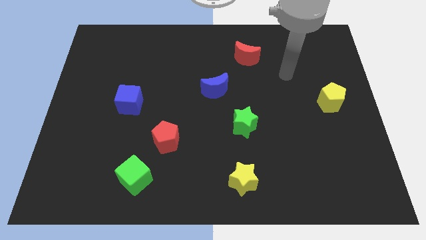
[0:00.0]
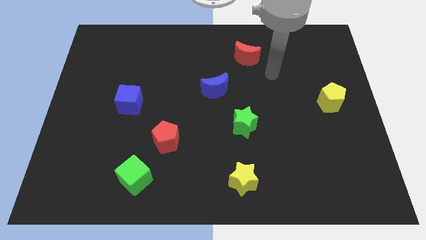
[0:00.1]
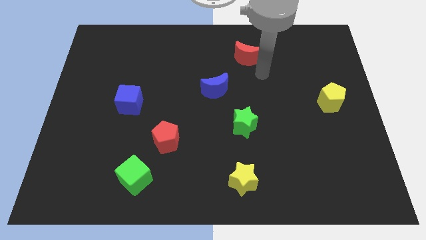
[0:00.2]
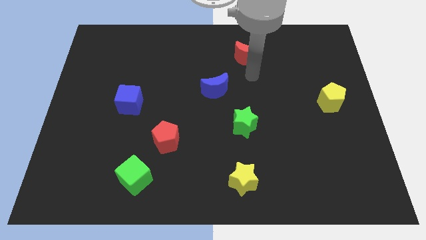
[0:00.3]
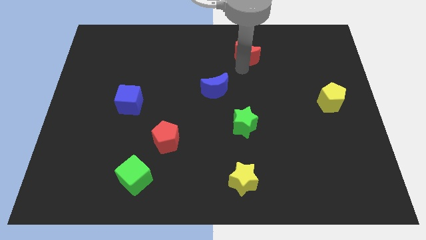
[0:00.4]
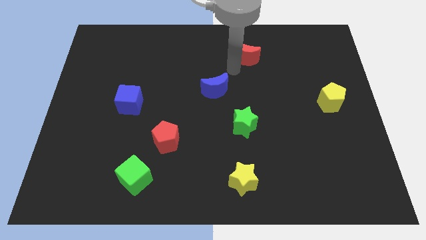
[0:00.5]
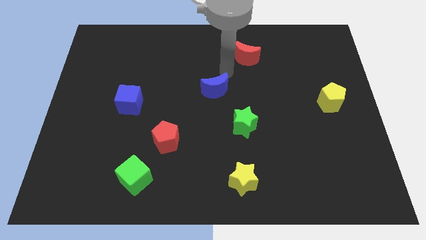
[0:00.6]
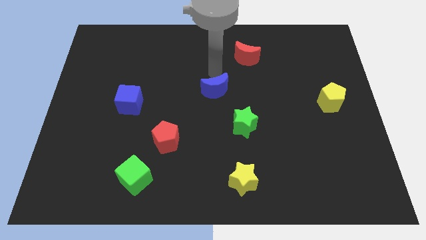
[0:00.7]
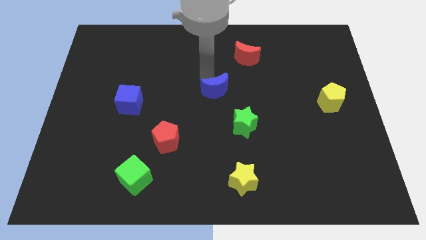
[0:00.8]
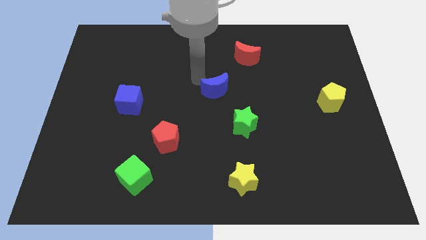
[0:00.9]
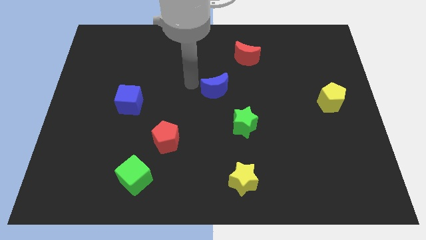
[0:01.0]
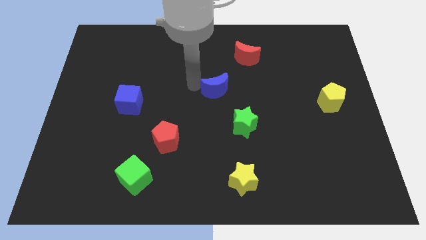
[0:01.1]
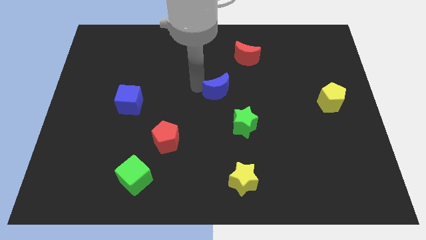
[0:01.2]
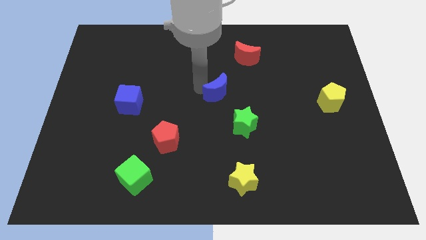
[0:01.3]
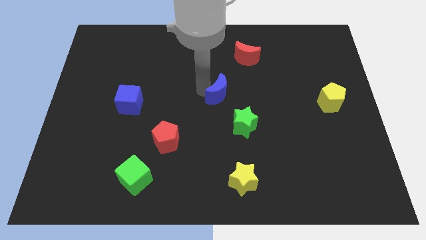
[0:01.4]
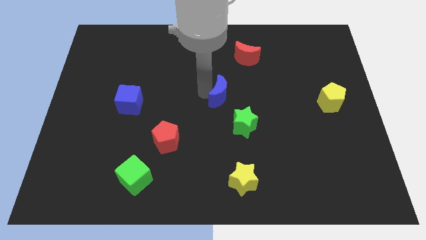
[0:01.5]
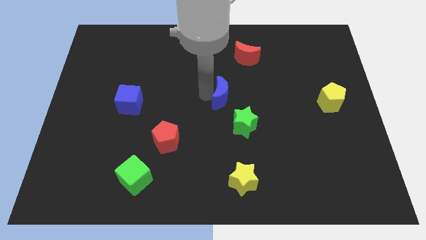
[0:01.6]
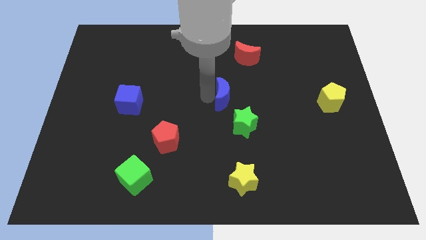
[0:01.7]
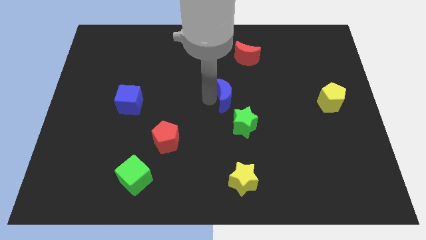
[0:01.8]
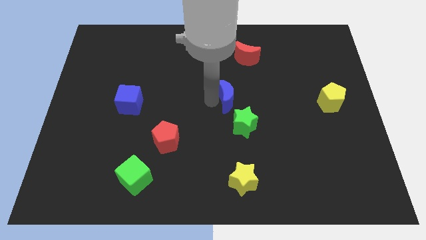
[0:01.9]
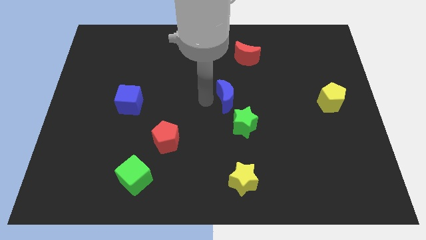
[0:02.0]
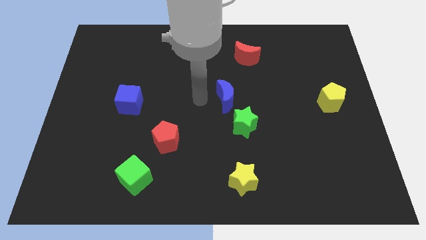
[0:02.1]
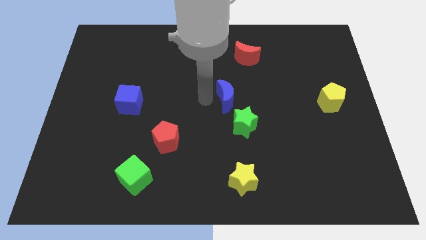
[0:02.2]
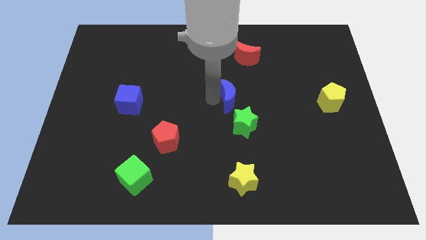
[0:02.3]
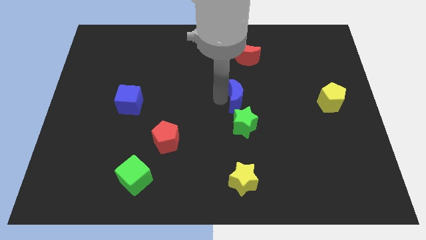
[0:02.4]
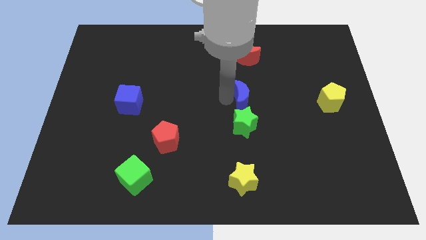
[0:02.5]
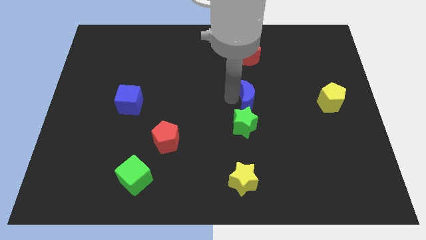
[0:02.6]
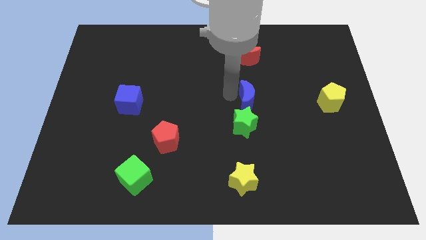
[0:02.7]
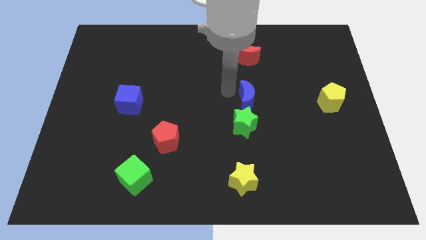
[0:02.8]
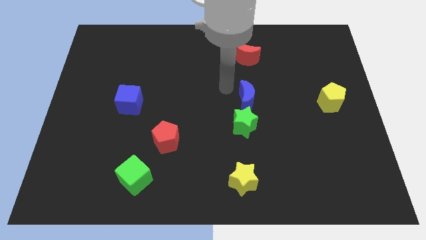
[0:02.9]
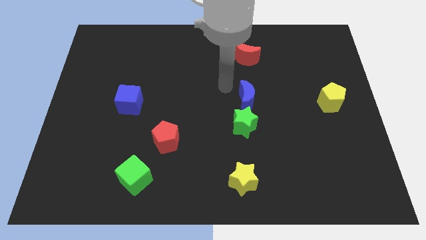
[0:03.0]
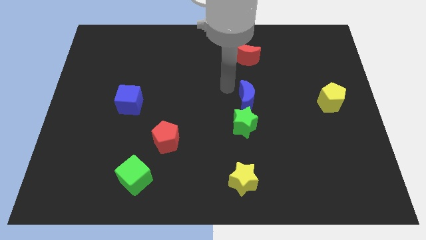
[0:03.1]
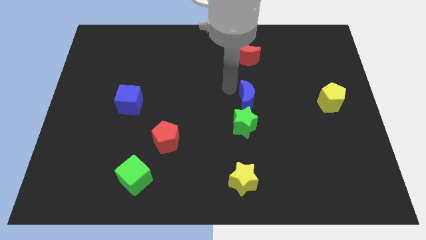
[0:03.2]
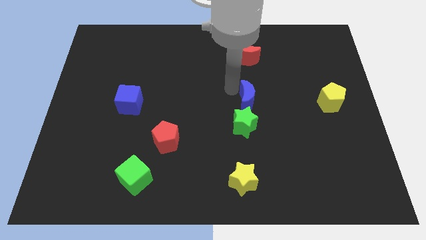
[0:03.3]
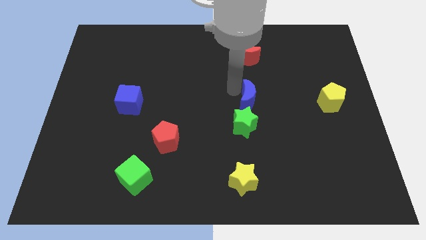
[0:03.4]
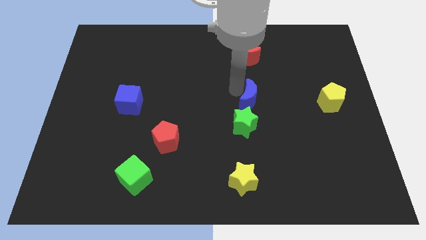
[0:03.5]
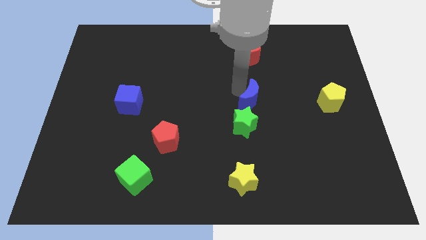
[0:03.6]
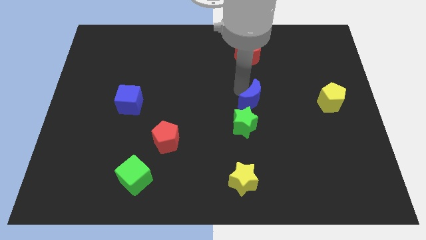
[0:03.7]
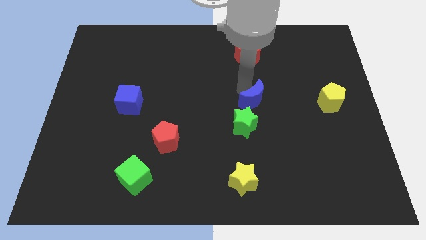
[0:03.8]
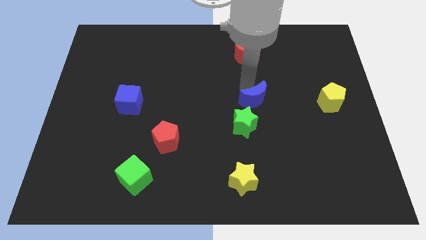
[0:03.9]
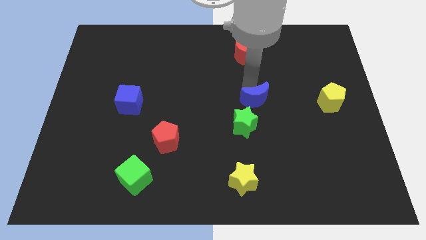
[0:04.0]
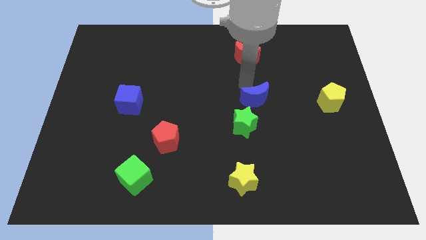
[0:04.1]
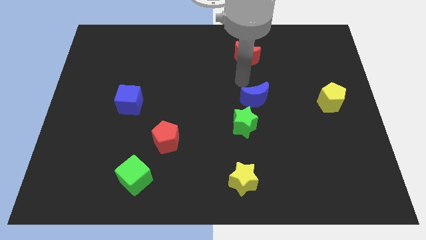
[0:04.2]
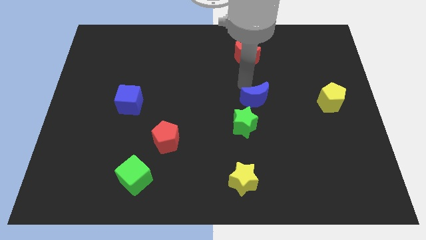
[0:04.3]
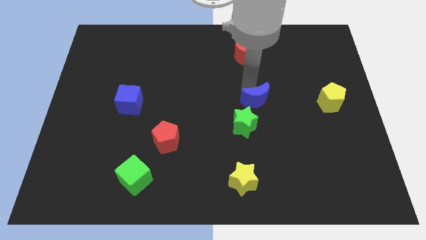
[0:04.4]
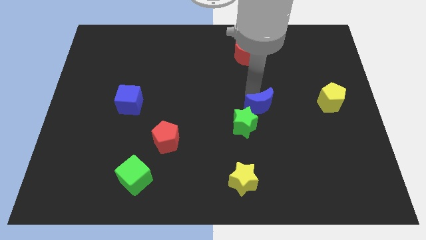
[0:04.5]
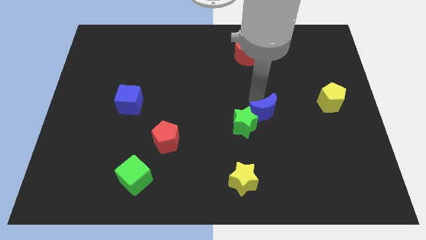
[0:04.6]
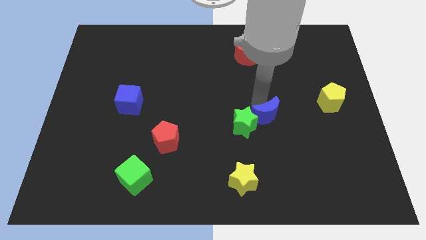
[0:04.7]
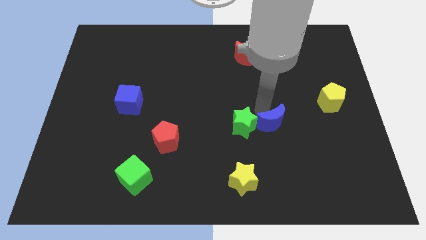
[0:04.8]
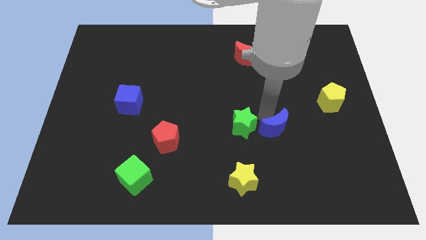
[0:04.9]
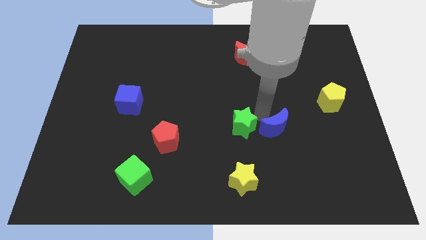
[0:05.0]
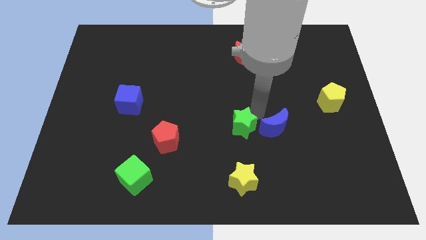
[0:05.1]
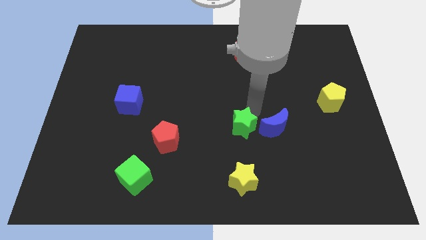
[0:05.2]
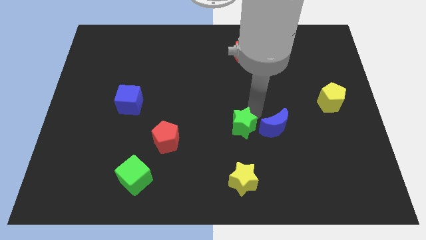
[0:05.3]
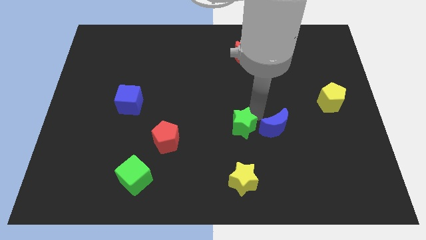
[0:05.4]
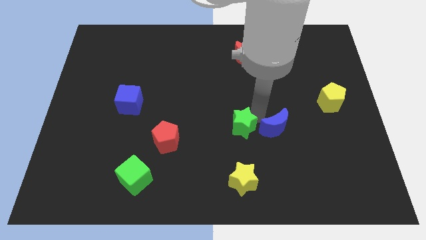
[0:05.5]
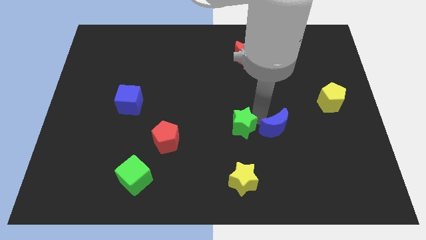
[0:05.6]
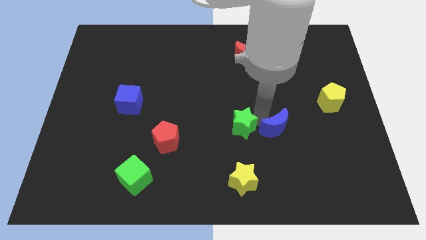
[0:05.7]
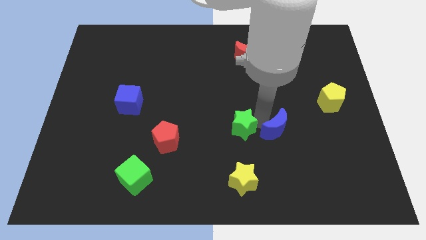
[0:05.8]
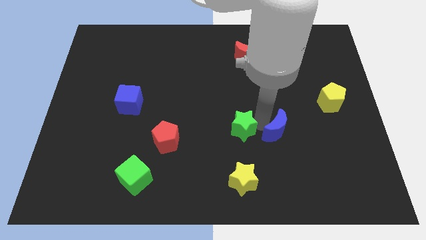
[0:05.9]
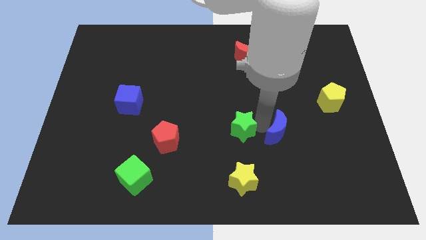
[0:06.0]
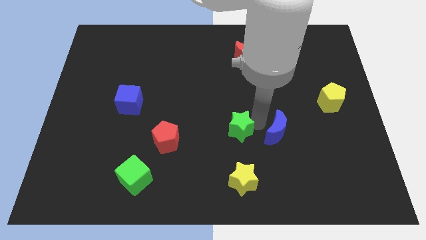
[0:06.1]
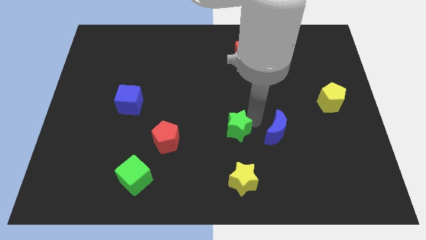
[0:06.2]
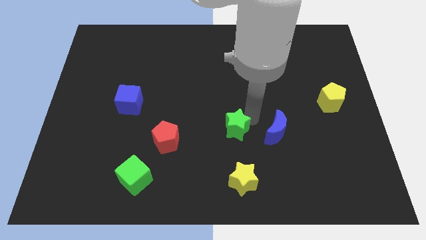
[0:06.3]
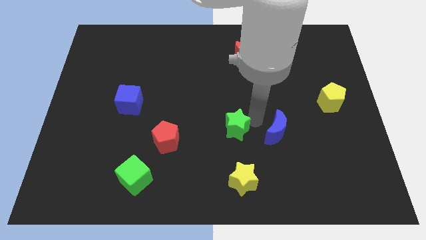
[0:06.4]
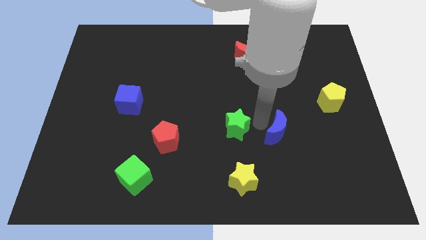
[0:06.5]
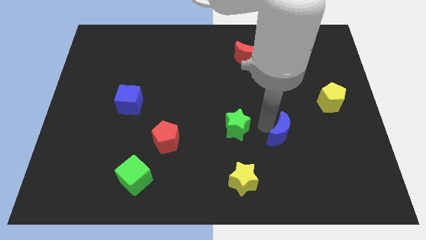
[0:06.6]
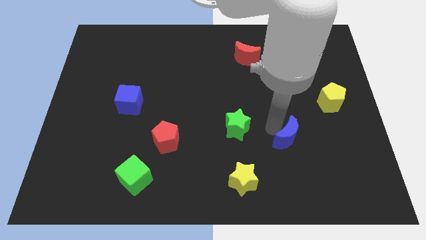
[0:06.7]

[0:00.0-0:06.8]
move the blue moon diagonally downwards and to the right

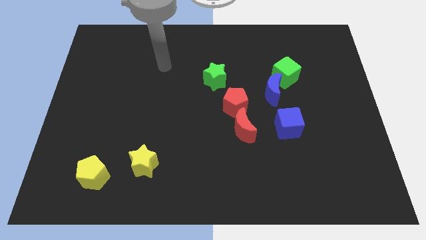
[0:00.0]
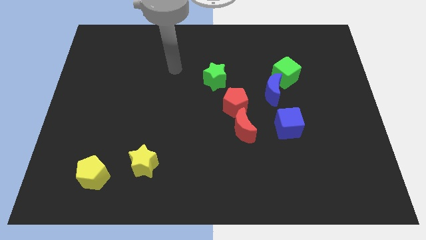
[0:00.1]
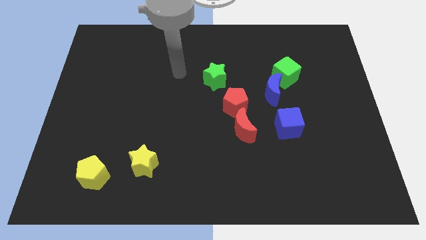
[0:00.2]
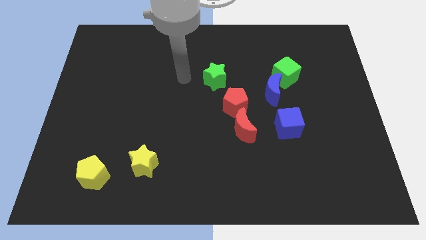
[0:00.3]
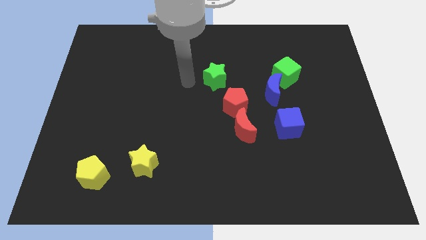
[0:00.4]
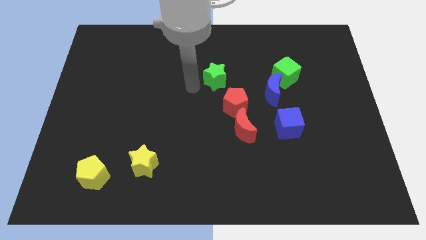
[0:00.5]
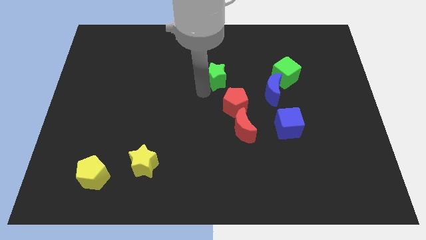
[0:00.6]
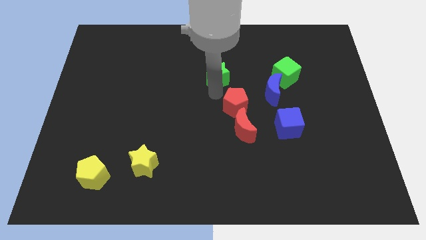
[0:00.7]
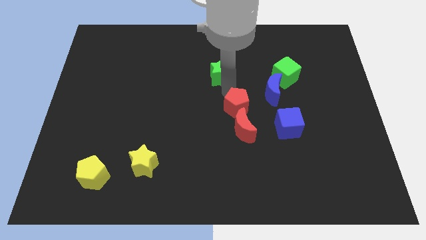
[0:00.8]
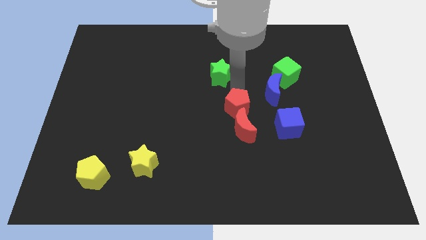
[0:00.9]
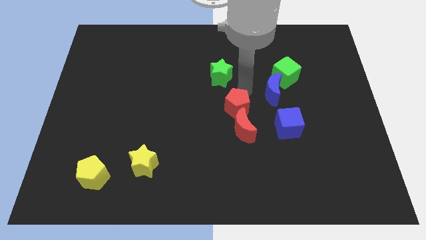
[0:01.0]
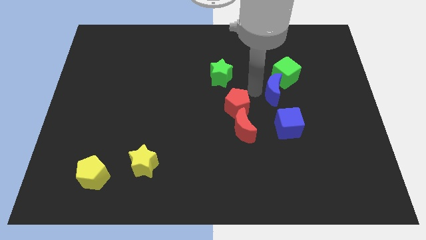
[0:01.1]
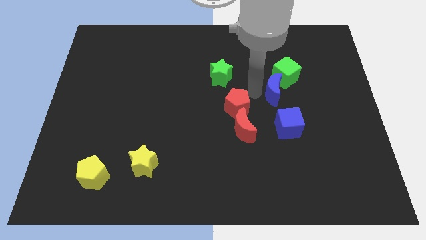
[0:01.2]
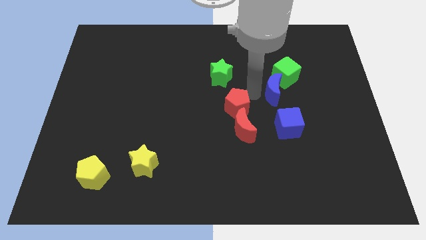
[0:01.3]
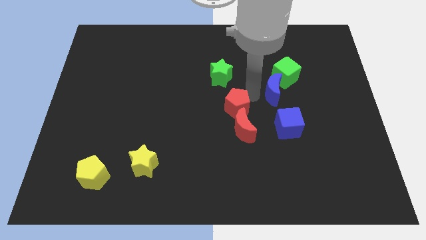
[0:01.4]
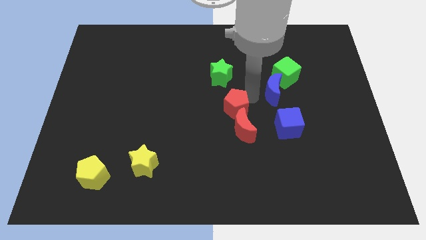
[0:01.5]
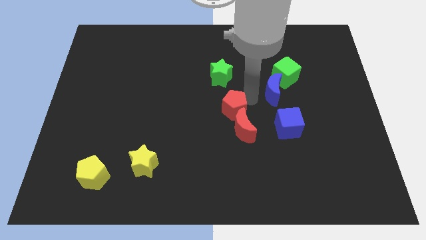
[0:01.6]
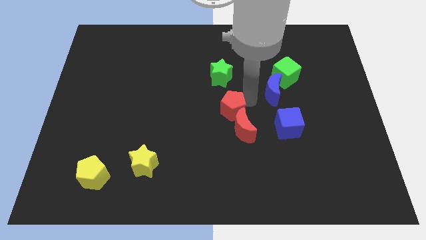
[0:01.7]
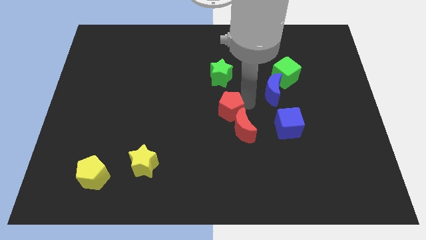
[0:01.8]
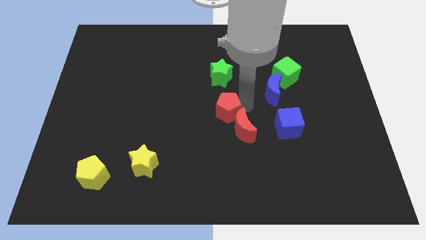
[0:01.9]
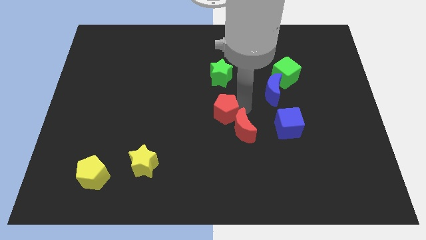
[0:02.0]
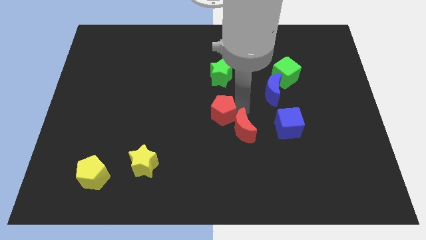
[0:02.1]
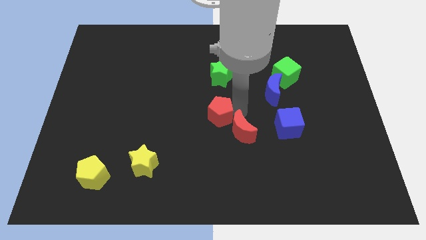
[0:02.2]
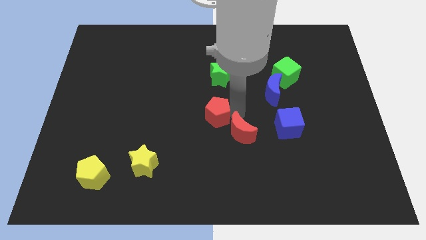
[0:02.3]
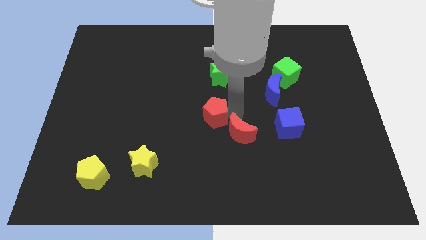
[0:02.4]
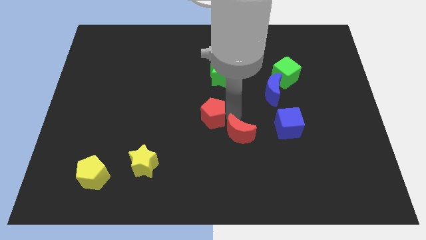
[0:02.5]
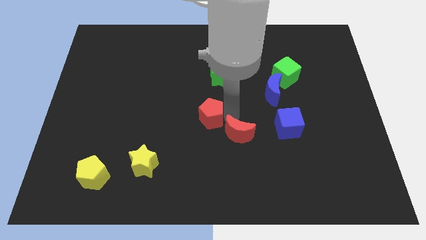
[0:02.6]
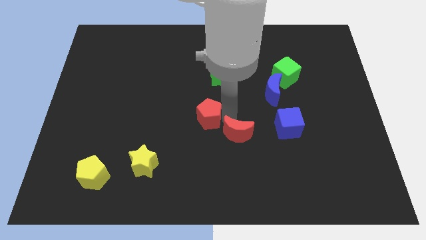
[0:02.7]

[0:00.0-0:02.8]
slightly push the red pentagon down and then left
